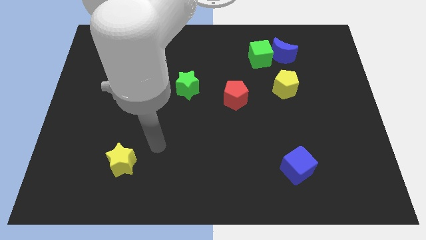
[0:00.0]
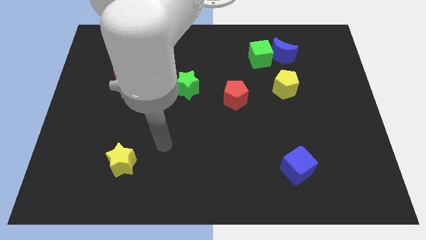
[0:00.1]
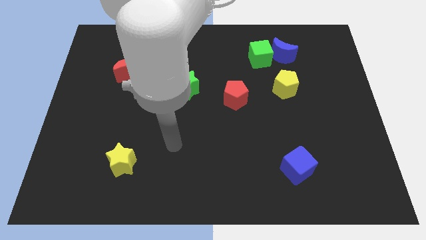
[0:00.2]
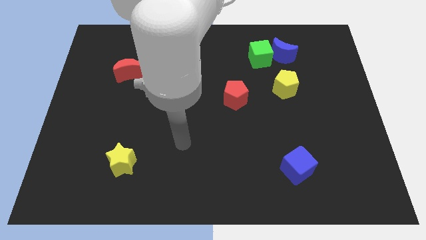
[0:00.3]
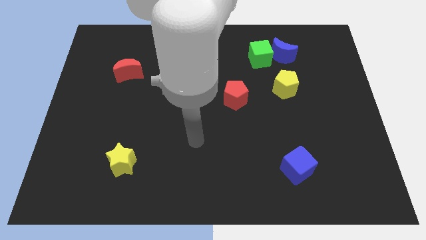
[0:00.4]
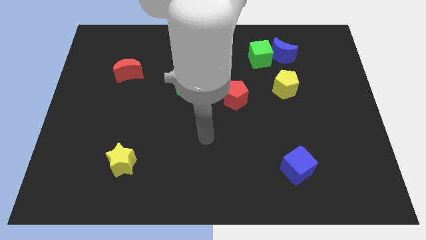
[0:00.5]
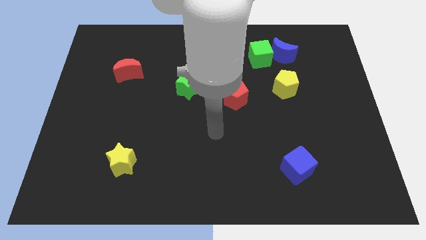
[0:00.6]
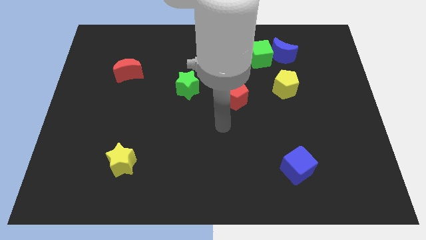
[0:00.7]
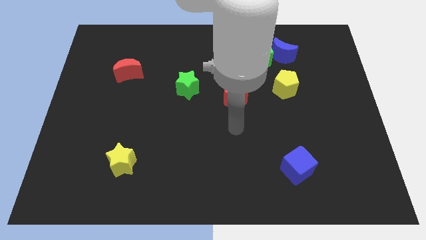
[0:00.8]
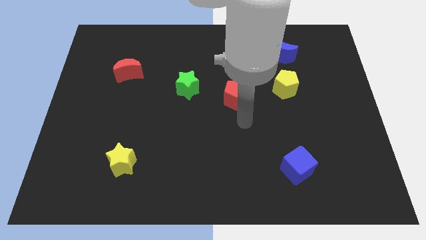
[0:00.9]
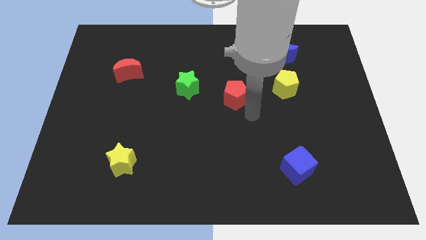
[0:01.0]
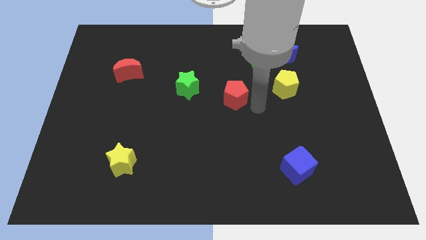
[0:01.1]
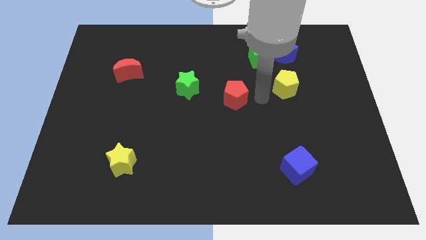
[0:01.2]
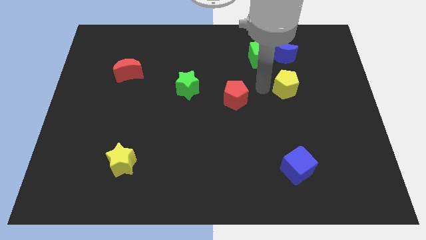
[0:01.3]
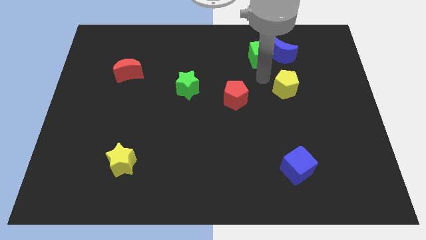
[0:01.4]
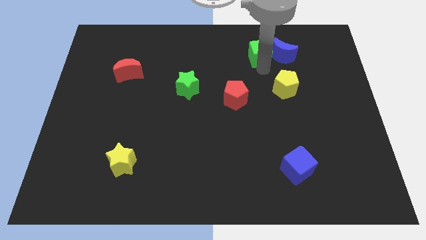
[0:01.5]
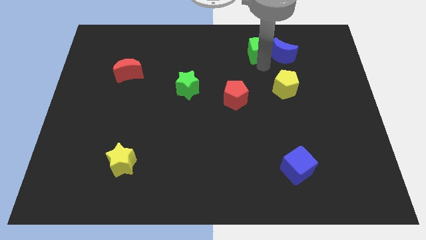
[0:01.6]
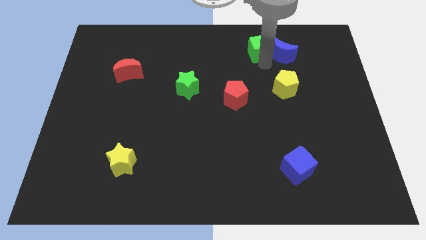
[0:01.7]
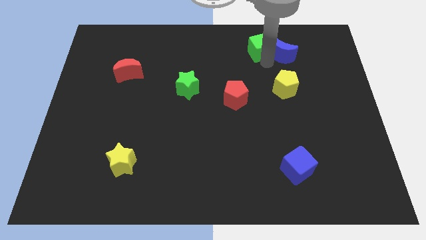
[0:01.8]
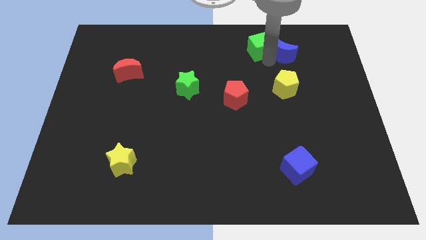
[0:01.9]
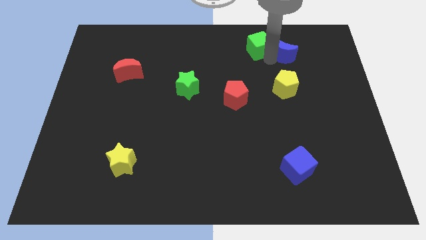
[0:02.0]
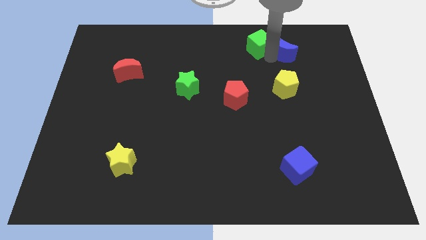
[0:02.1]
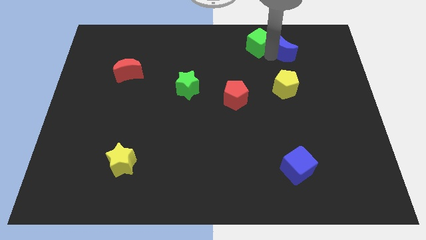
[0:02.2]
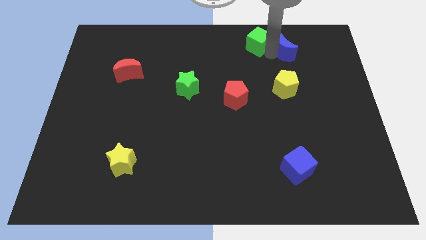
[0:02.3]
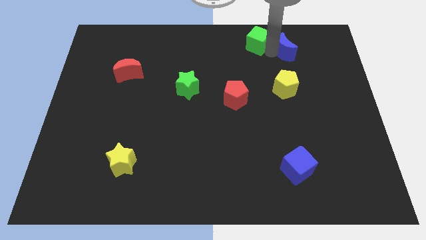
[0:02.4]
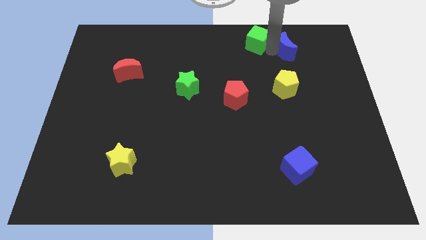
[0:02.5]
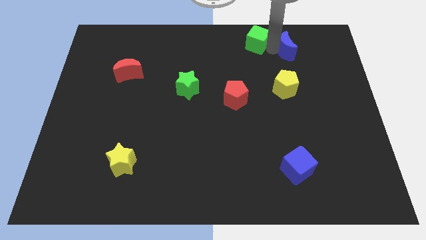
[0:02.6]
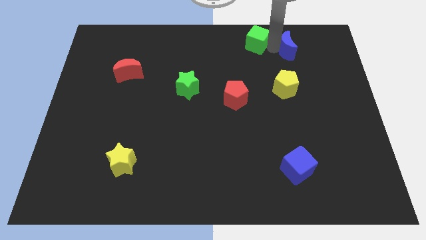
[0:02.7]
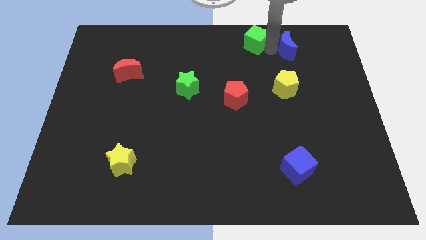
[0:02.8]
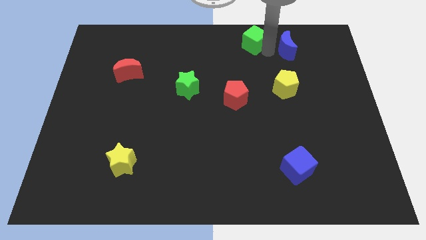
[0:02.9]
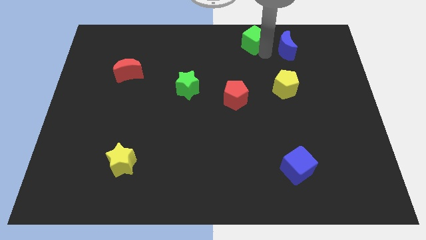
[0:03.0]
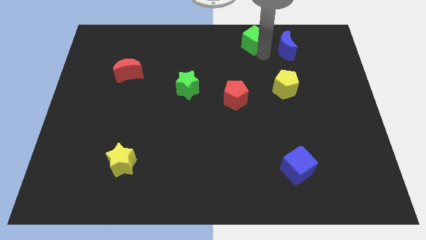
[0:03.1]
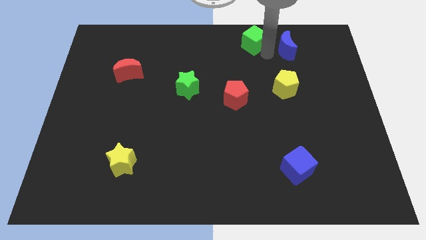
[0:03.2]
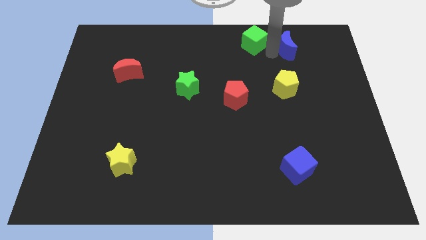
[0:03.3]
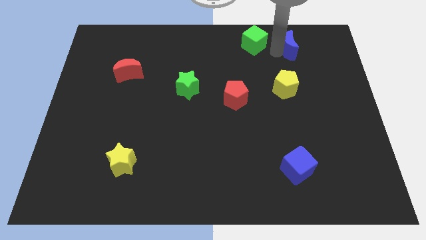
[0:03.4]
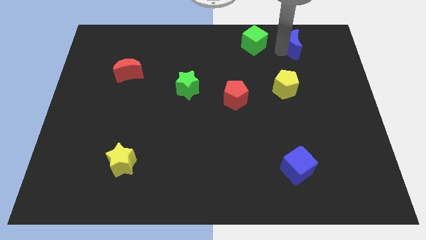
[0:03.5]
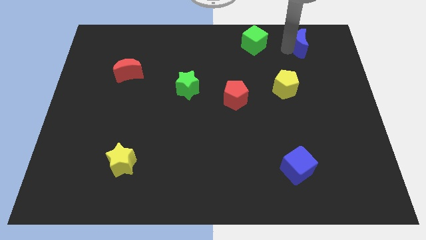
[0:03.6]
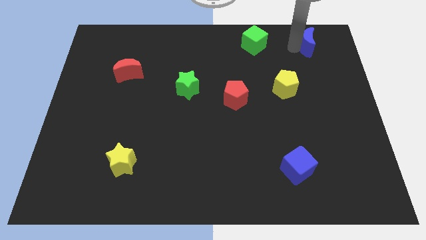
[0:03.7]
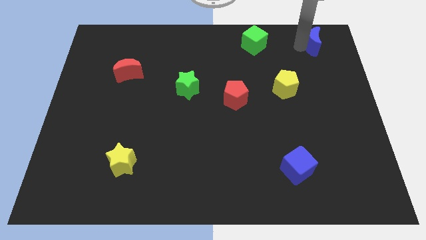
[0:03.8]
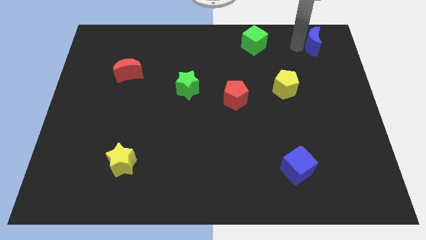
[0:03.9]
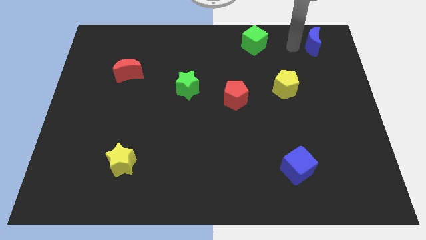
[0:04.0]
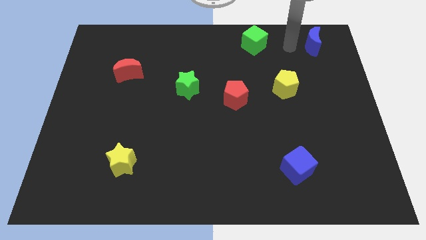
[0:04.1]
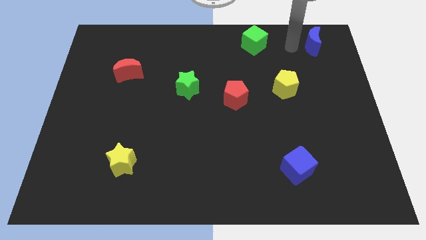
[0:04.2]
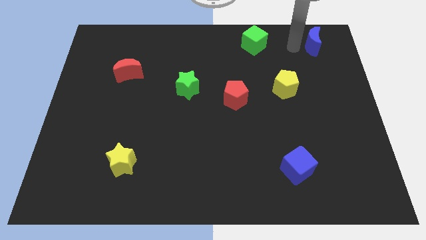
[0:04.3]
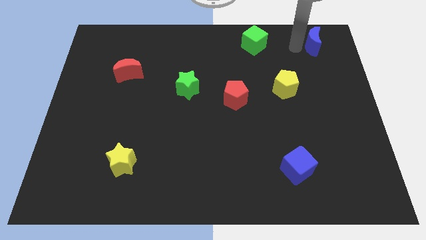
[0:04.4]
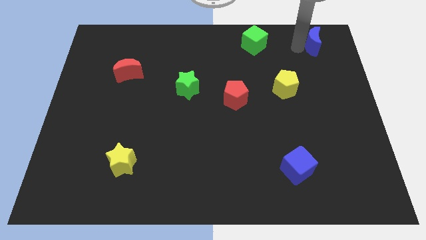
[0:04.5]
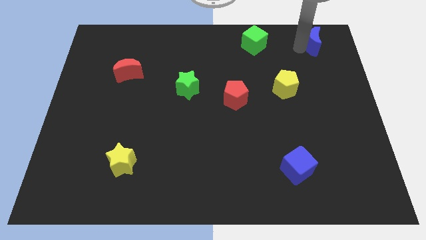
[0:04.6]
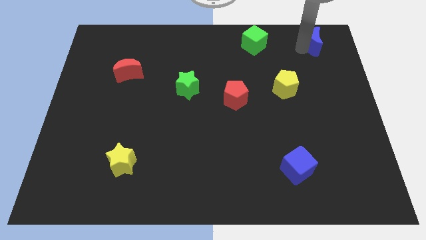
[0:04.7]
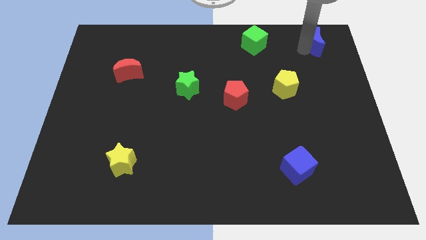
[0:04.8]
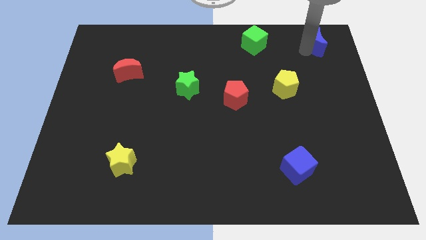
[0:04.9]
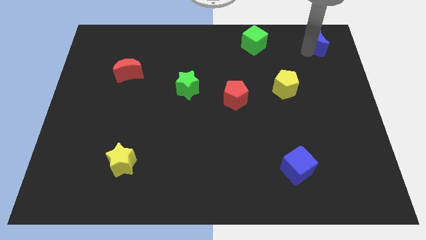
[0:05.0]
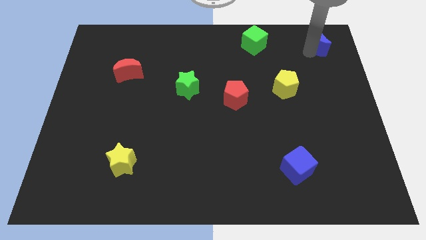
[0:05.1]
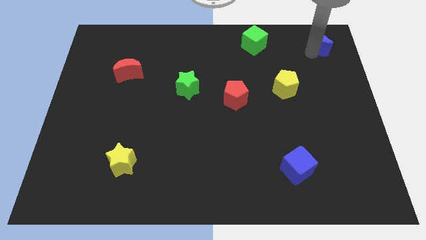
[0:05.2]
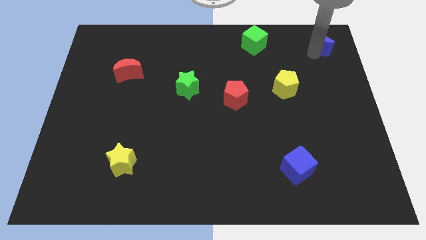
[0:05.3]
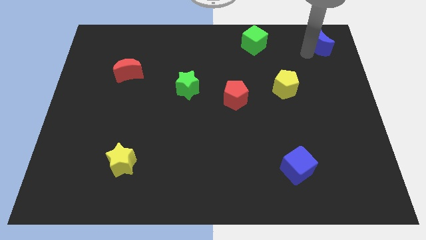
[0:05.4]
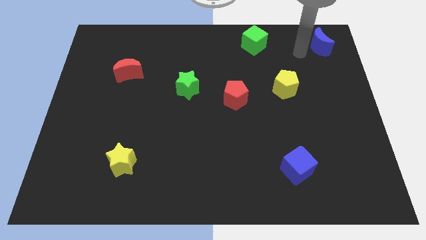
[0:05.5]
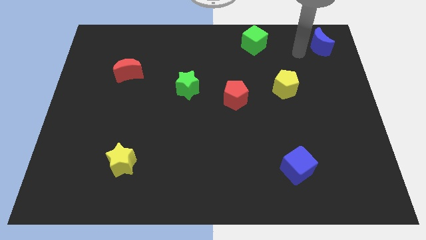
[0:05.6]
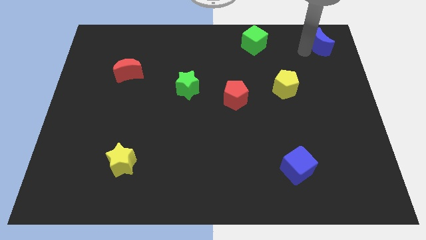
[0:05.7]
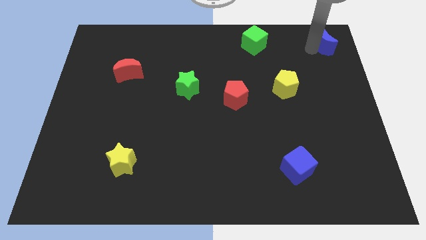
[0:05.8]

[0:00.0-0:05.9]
put the blue moon to the top right corner

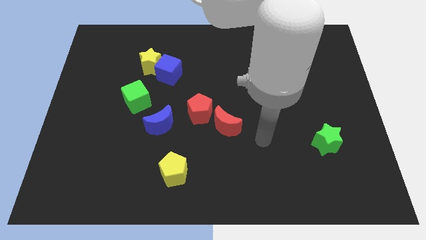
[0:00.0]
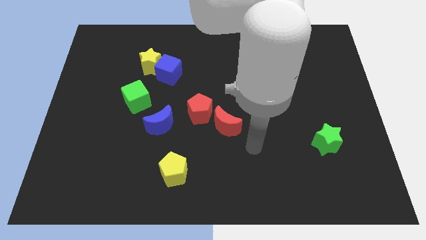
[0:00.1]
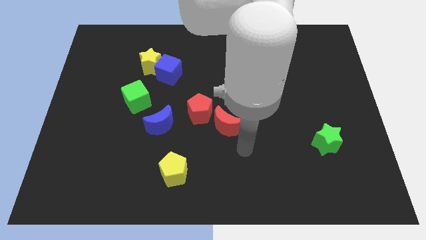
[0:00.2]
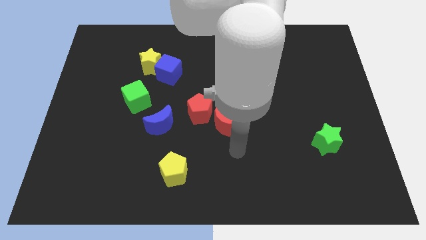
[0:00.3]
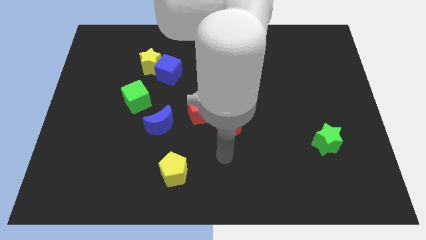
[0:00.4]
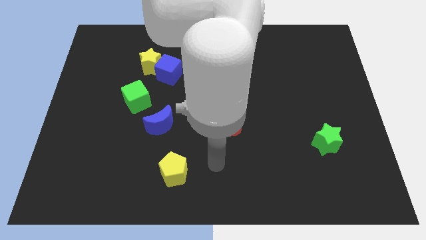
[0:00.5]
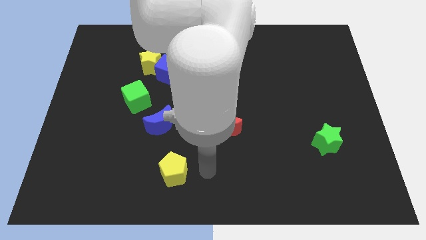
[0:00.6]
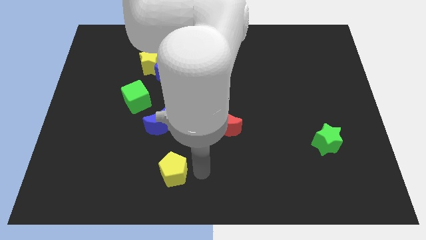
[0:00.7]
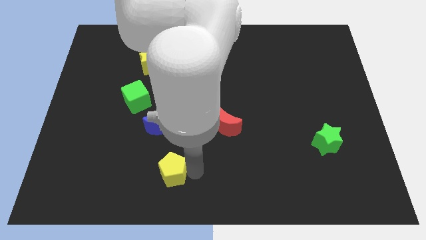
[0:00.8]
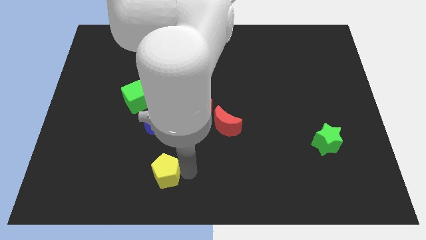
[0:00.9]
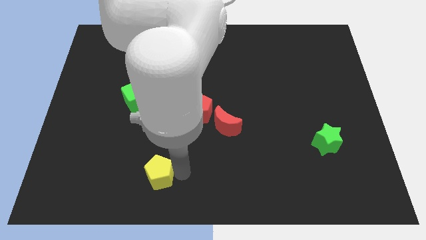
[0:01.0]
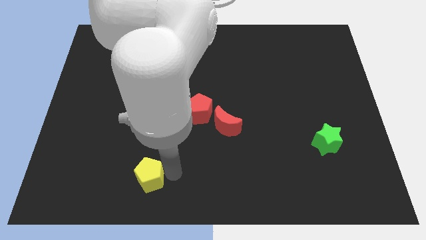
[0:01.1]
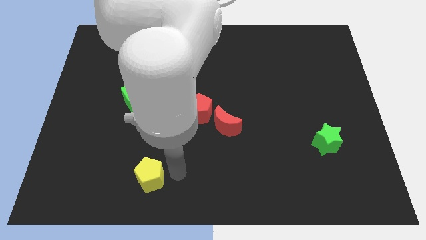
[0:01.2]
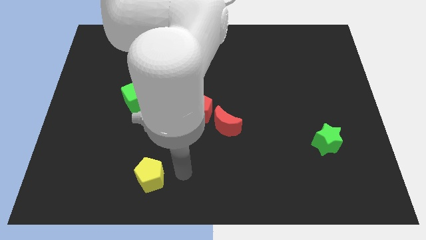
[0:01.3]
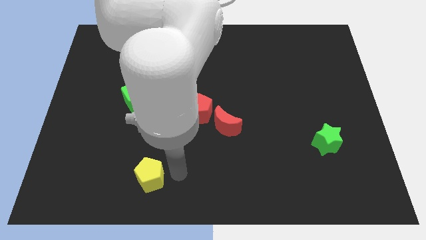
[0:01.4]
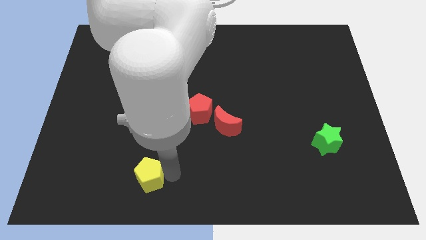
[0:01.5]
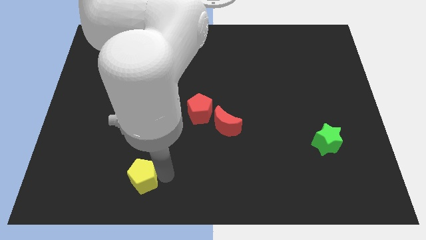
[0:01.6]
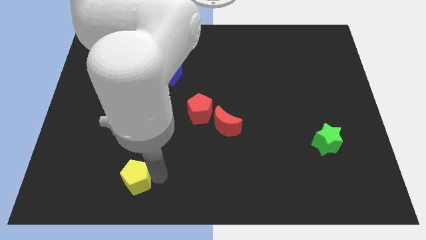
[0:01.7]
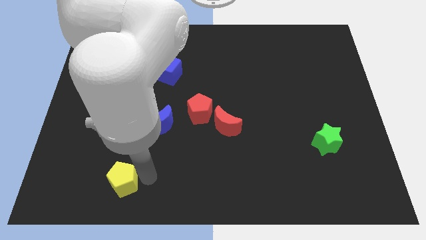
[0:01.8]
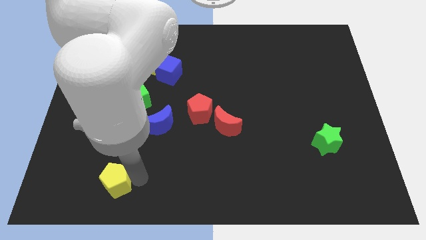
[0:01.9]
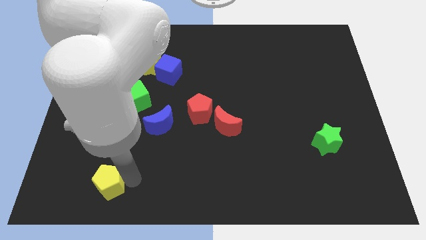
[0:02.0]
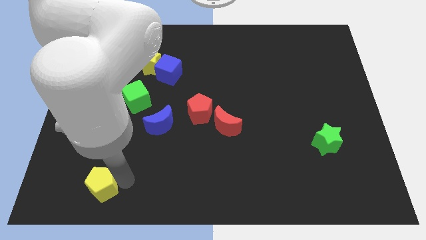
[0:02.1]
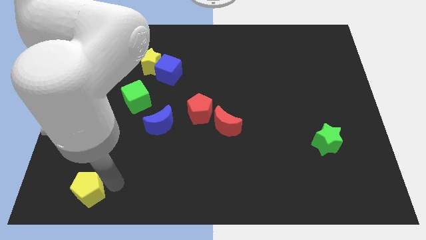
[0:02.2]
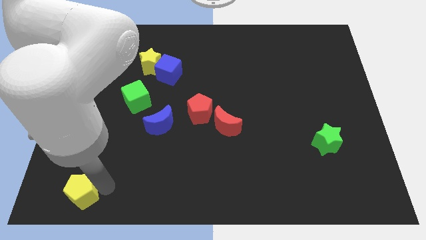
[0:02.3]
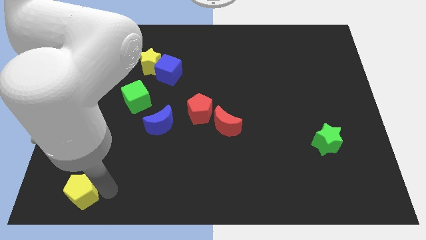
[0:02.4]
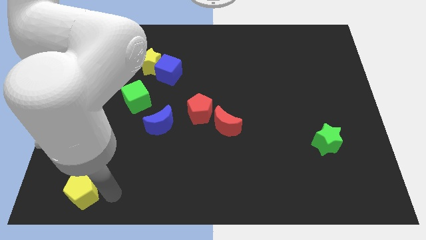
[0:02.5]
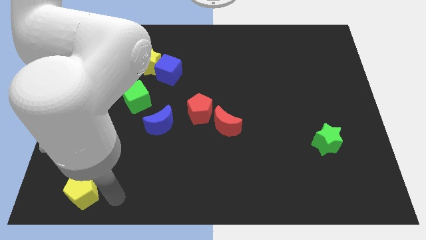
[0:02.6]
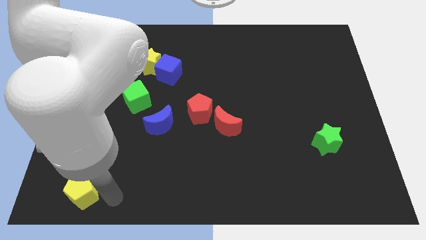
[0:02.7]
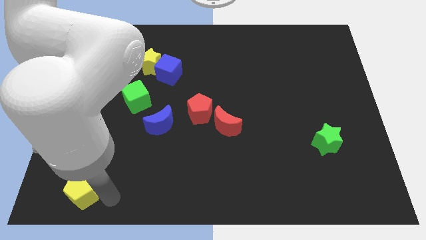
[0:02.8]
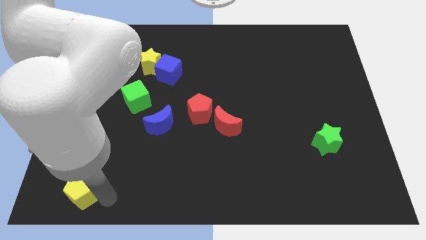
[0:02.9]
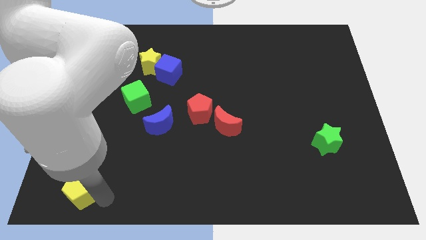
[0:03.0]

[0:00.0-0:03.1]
put the yellow pentagon to the bottom left
